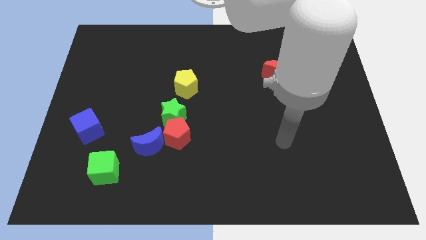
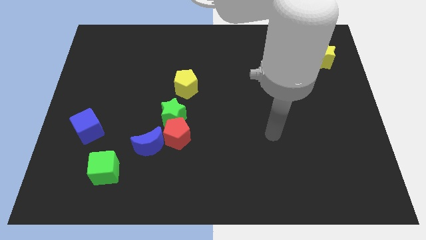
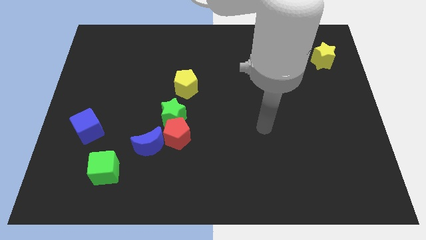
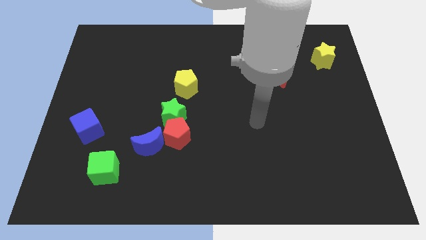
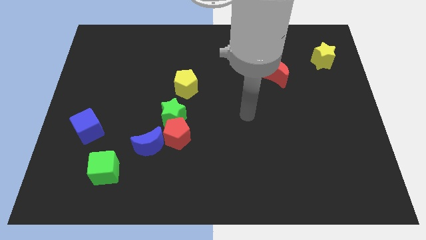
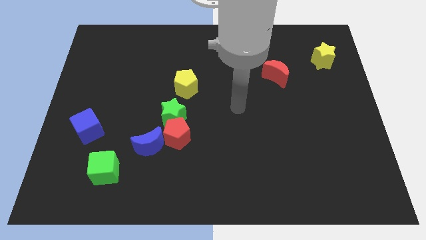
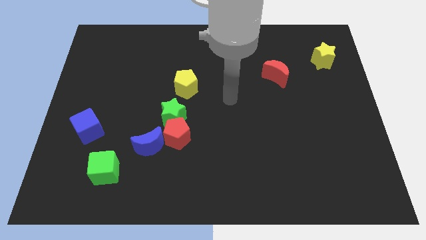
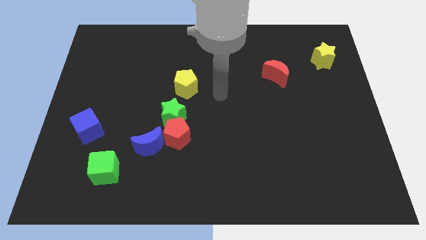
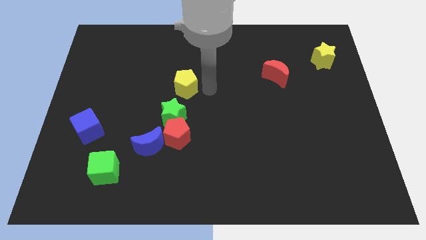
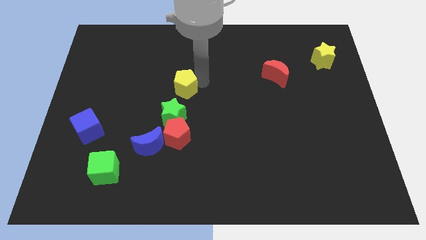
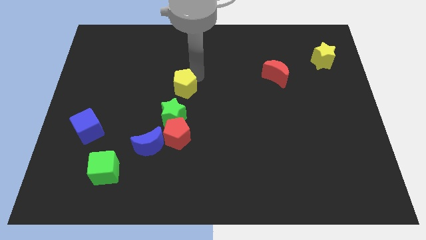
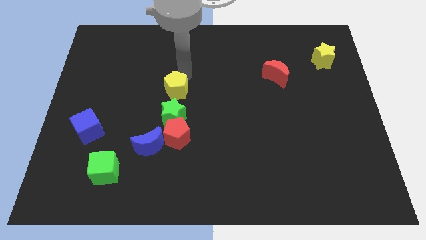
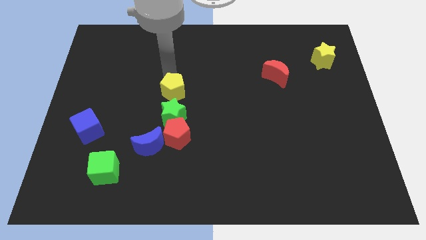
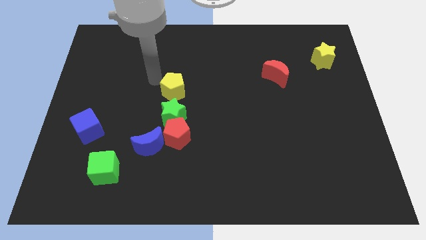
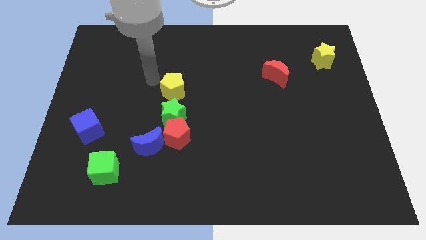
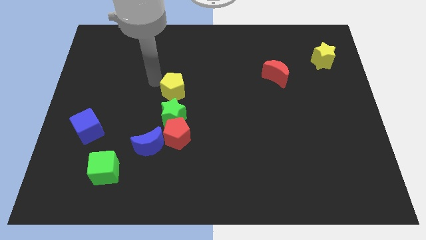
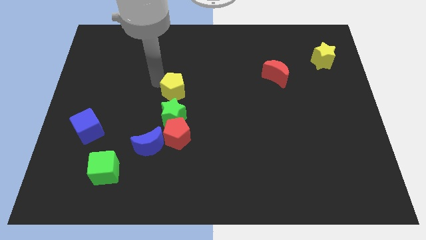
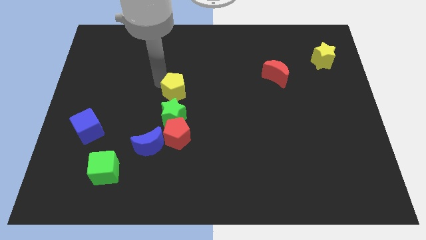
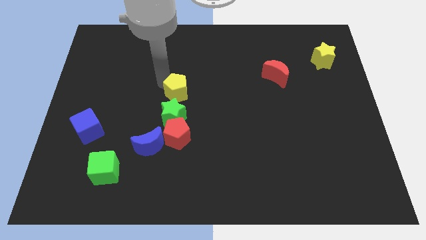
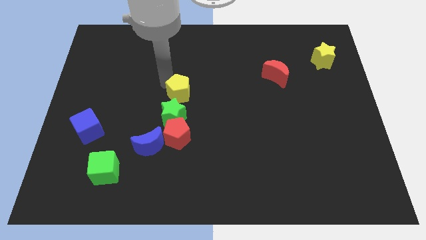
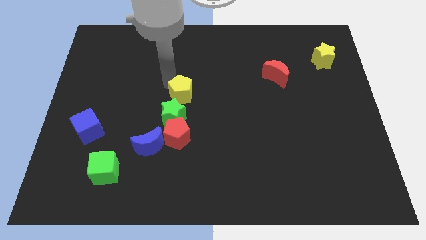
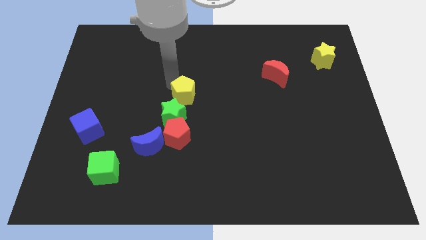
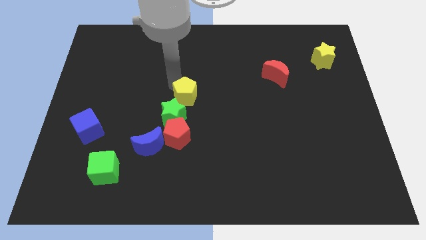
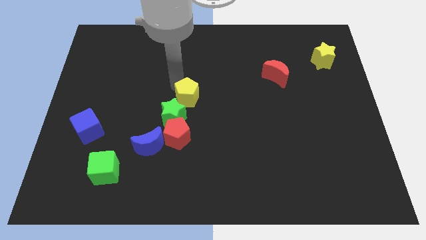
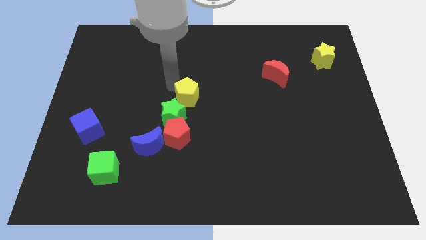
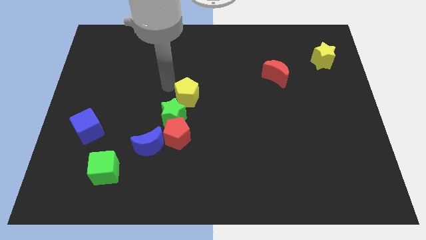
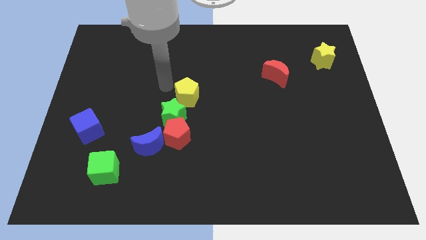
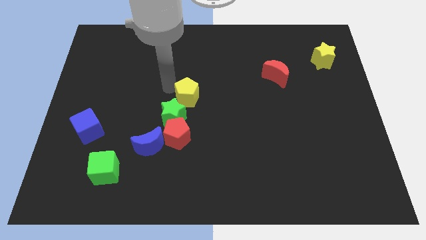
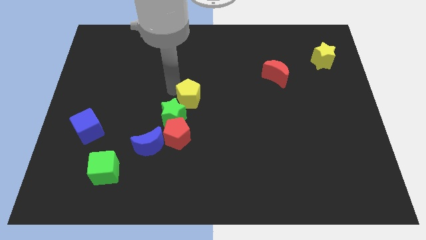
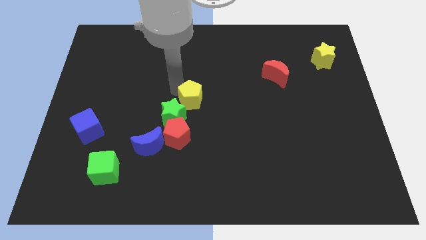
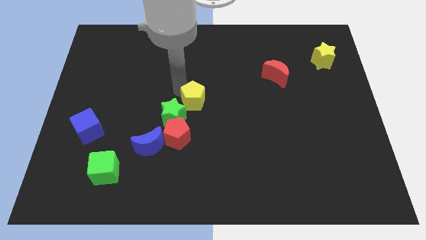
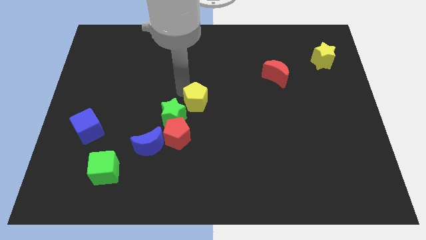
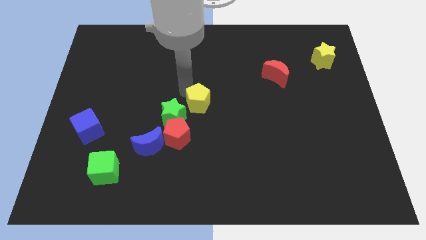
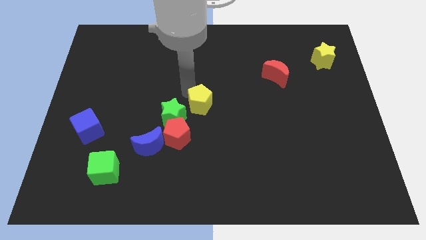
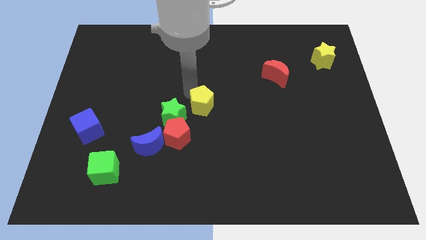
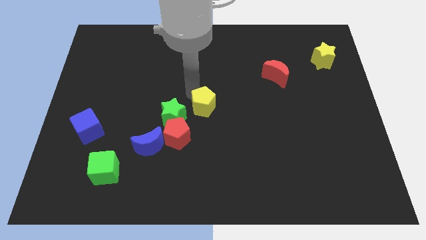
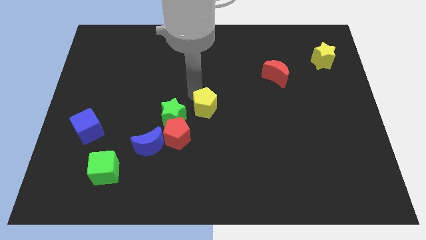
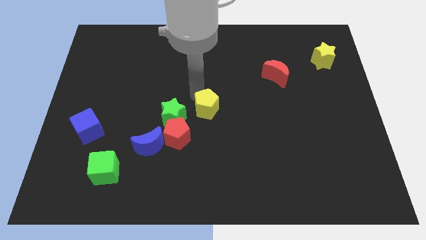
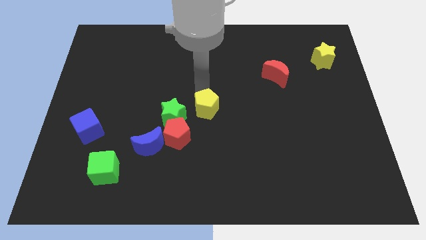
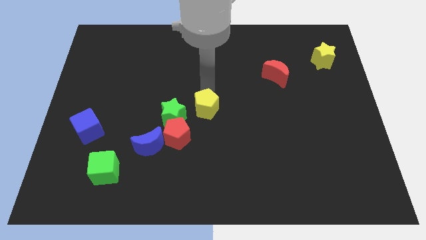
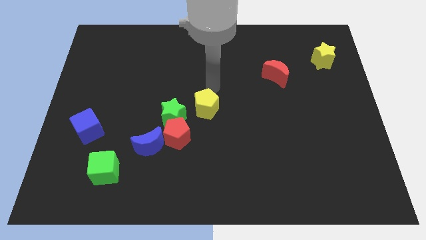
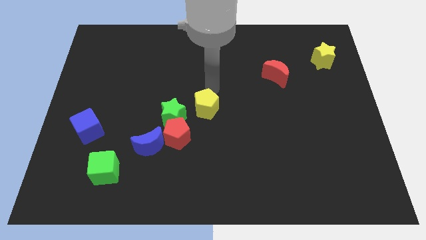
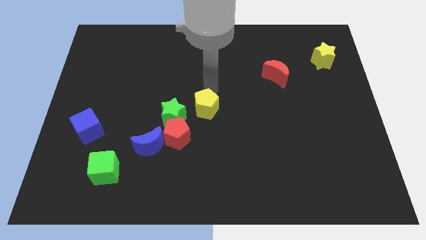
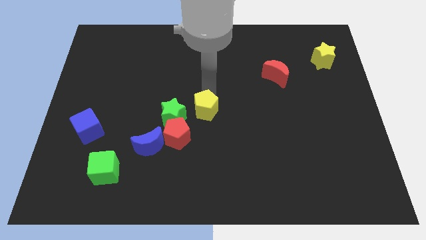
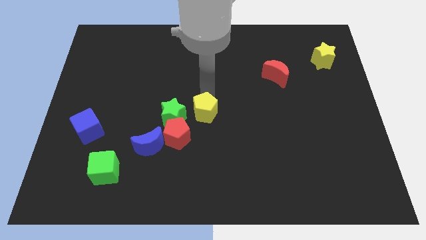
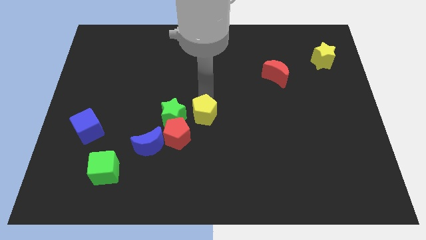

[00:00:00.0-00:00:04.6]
slightly move the yellow pentagon down

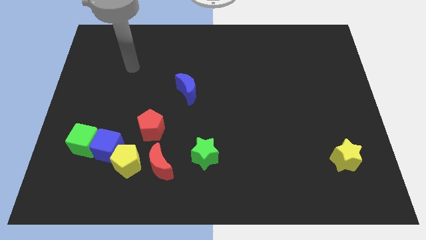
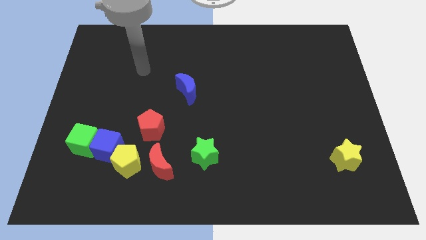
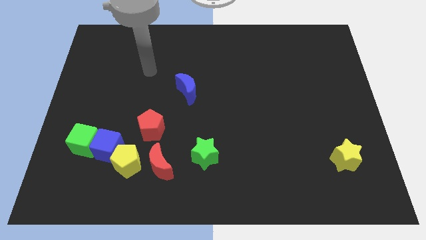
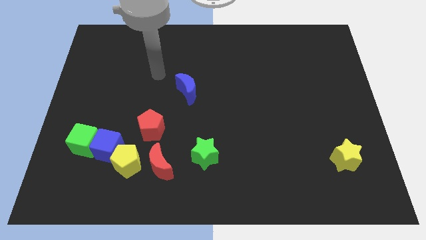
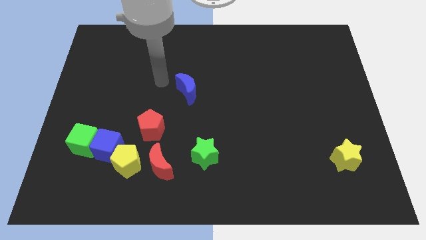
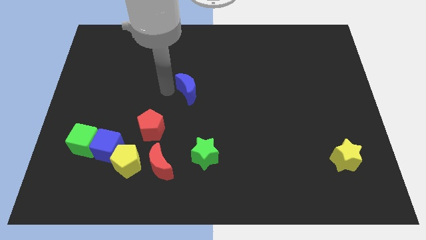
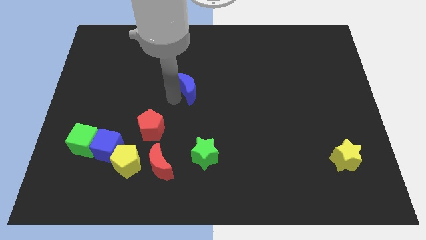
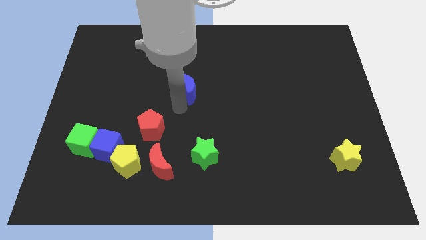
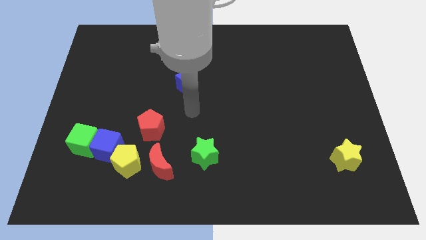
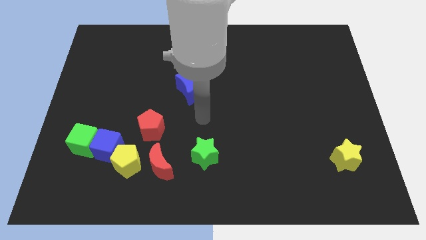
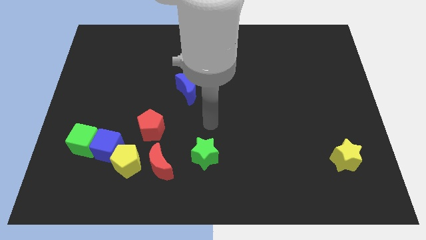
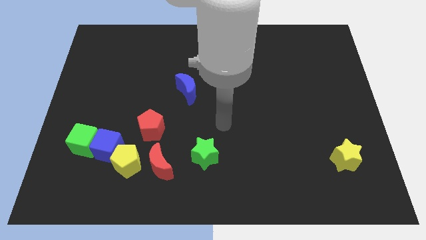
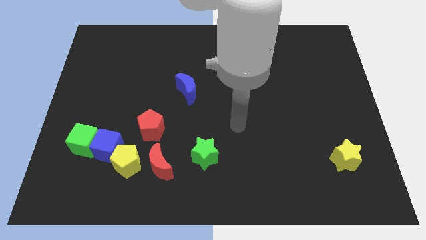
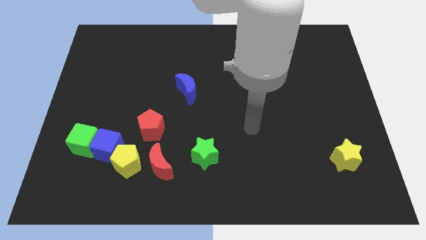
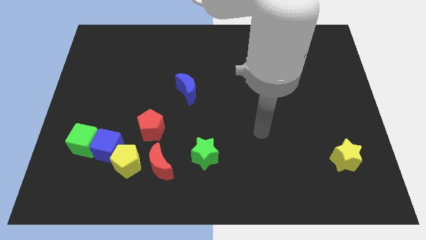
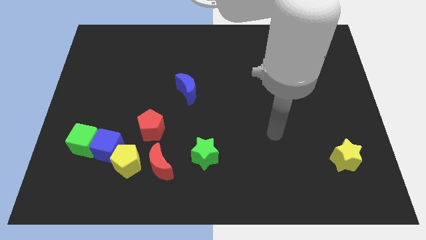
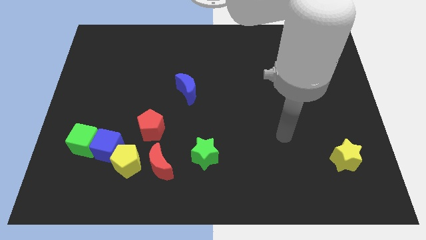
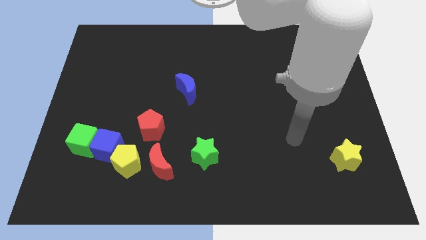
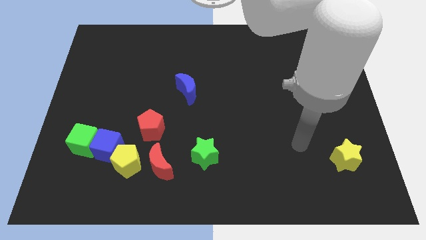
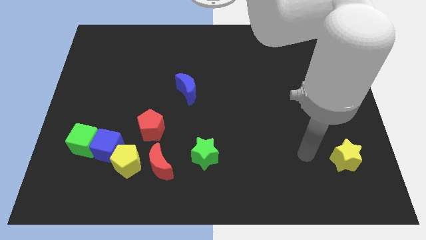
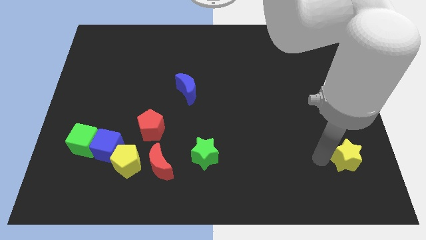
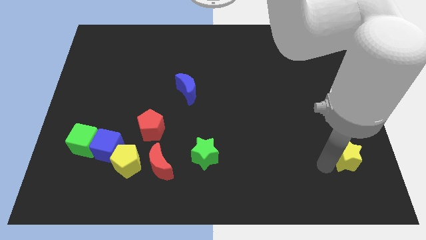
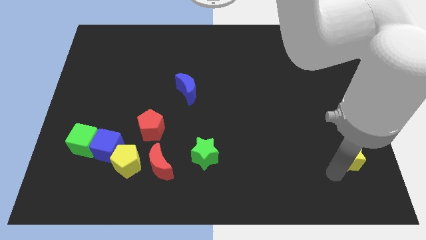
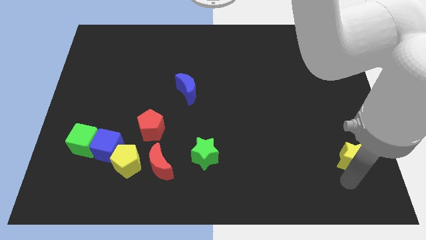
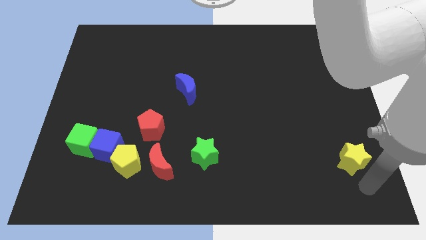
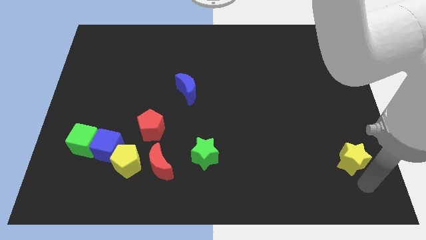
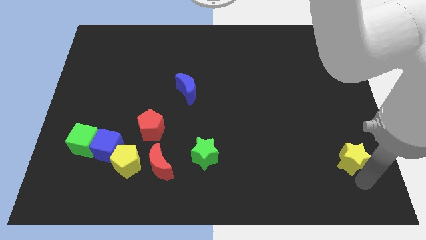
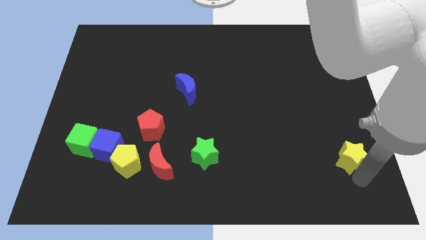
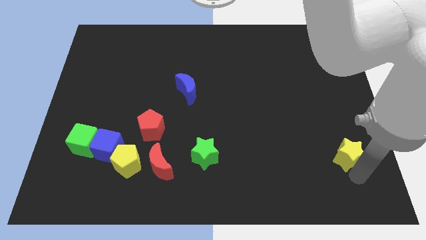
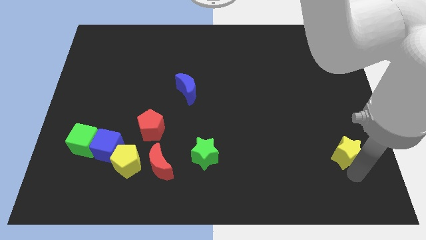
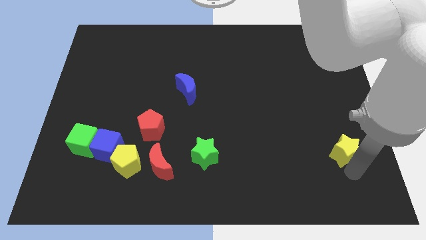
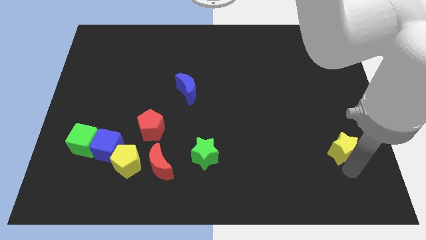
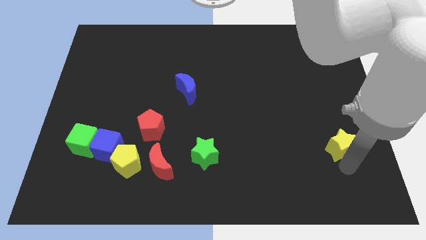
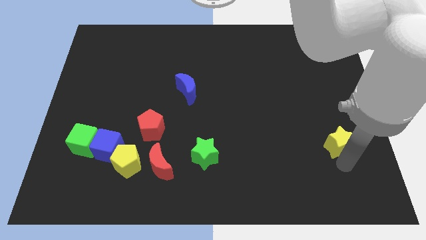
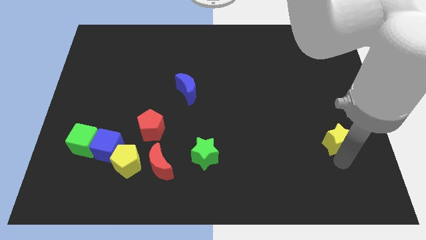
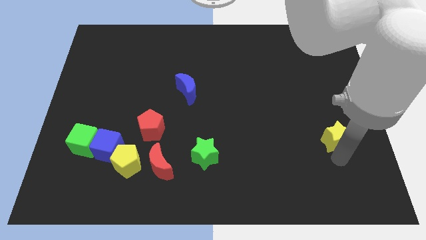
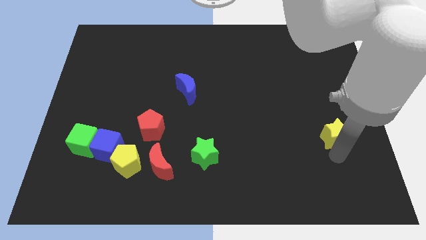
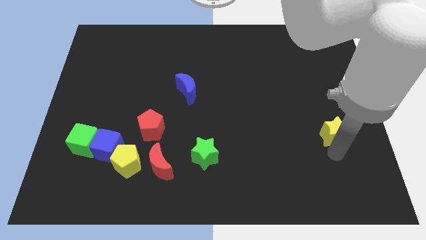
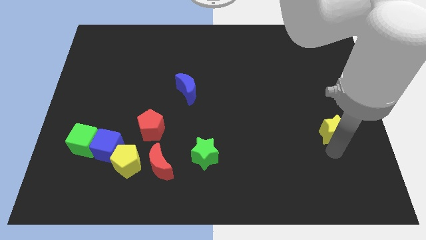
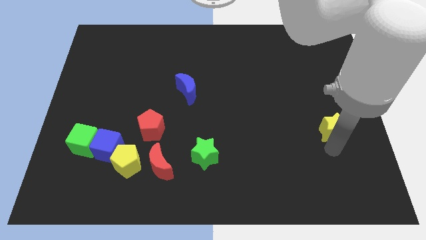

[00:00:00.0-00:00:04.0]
slide the yellow star upwards a little bit
